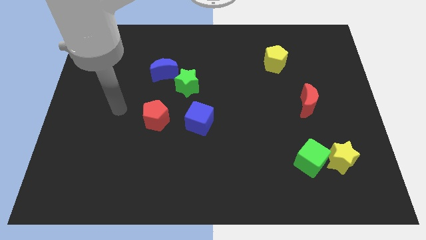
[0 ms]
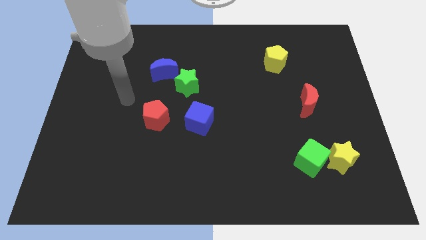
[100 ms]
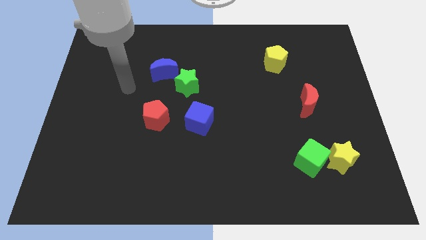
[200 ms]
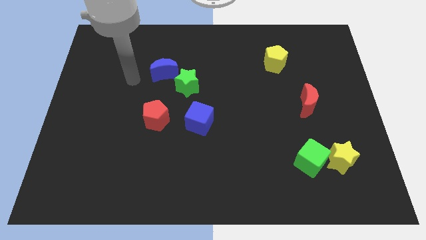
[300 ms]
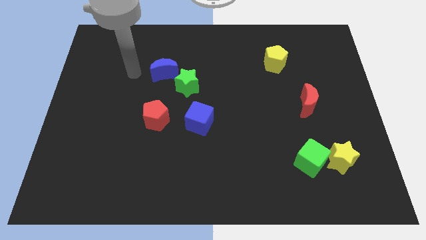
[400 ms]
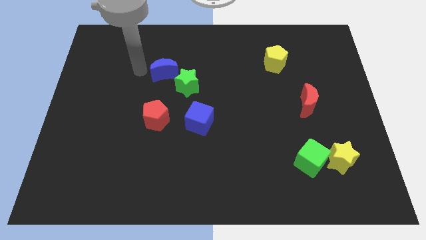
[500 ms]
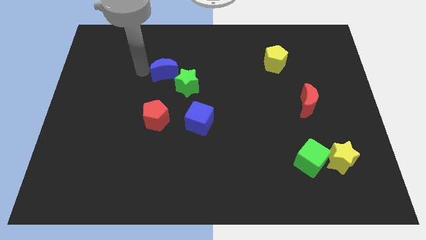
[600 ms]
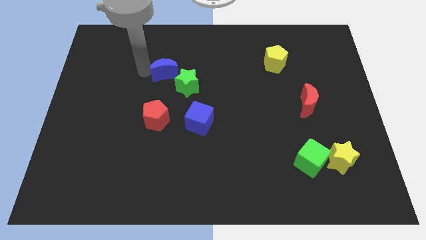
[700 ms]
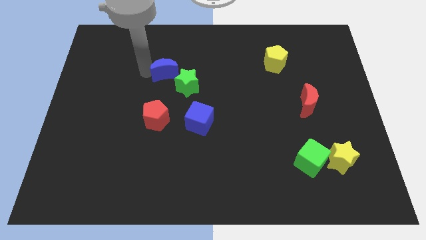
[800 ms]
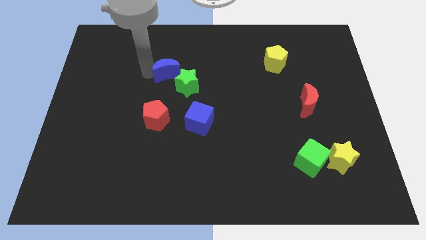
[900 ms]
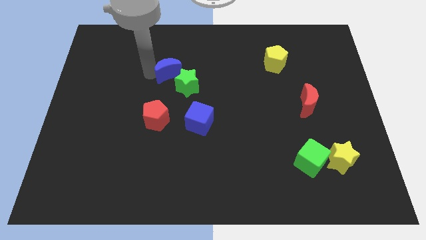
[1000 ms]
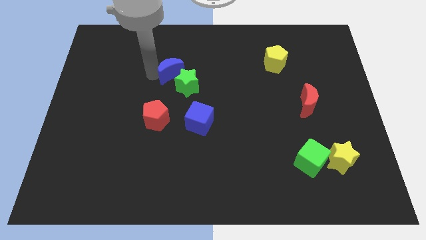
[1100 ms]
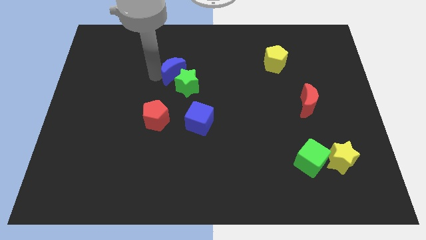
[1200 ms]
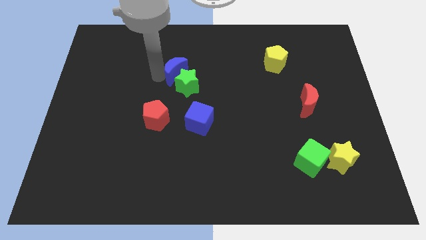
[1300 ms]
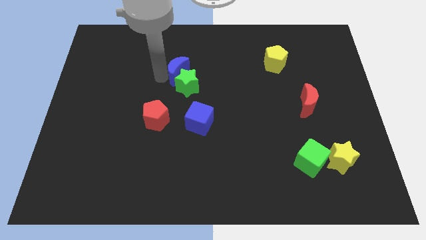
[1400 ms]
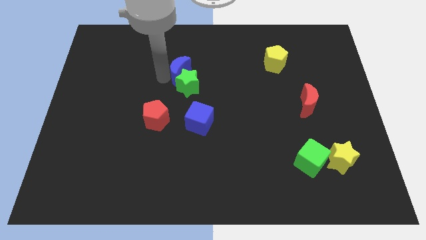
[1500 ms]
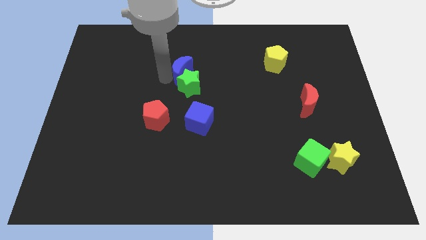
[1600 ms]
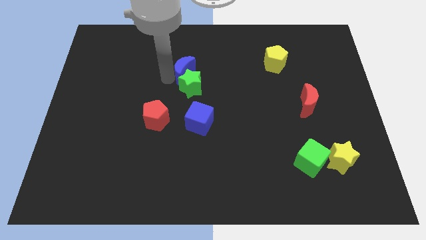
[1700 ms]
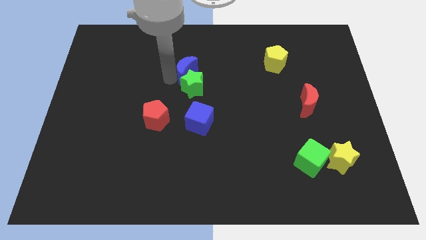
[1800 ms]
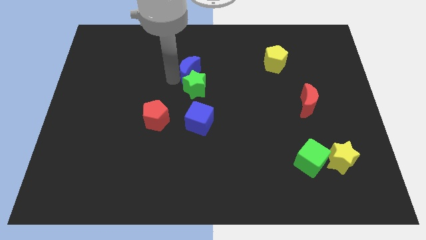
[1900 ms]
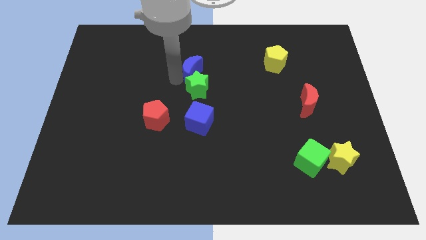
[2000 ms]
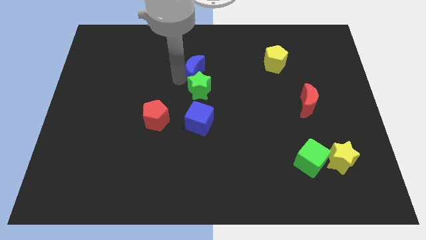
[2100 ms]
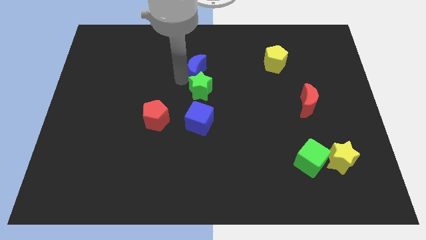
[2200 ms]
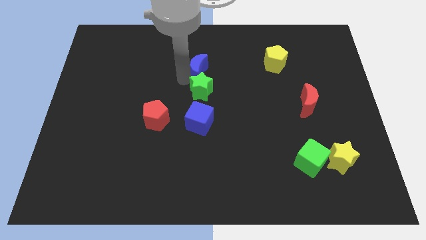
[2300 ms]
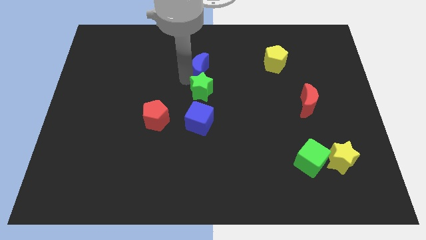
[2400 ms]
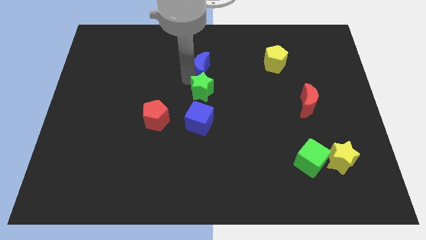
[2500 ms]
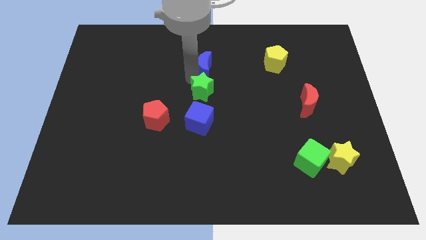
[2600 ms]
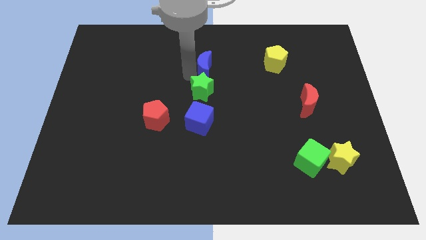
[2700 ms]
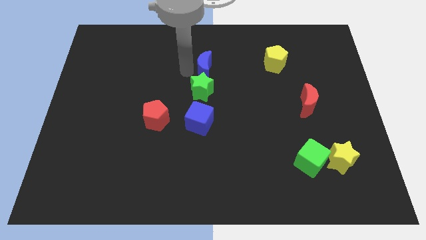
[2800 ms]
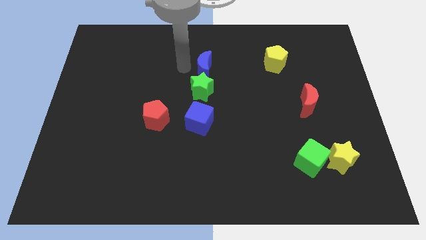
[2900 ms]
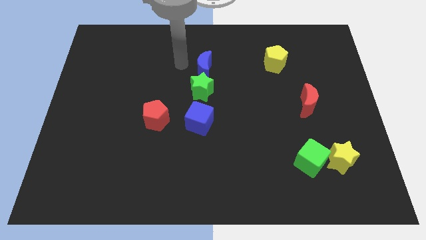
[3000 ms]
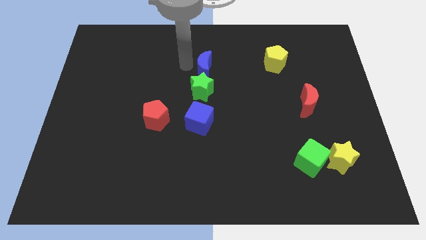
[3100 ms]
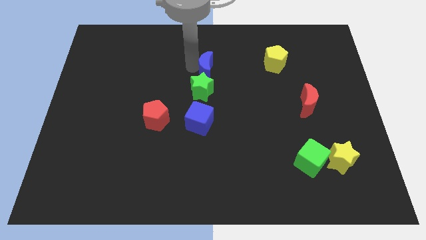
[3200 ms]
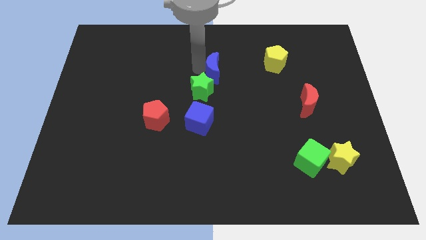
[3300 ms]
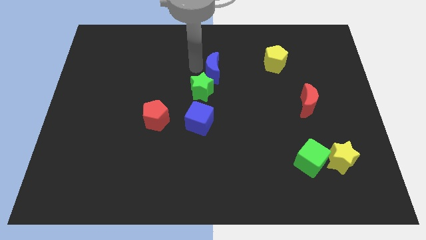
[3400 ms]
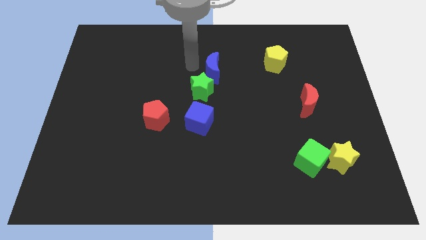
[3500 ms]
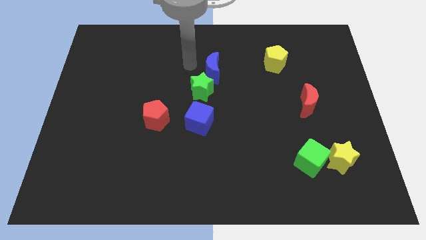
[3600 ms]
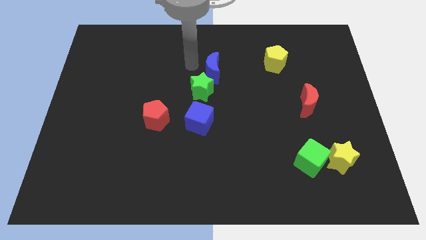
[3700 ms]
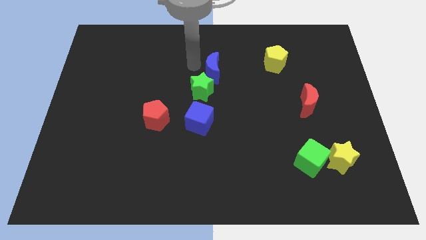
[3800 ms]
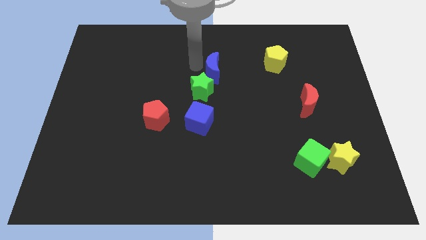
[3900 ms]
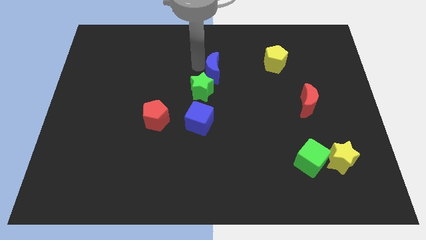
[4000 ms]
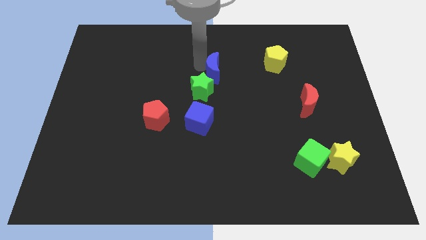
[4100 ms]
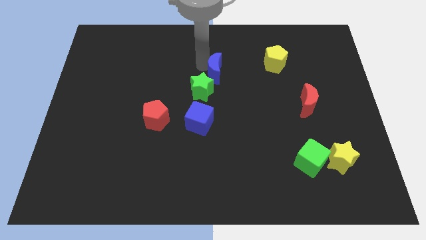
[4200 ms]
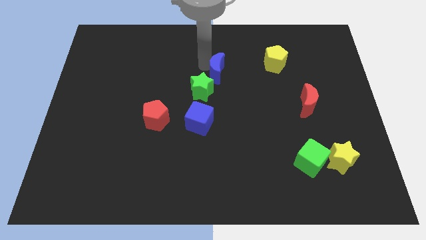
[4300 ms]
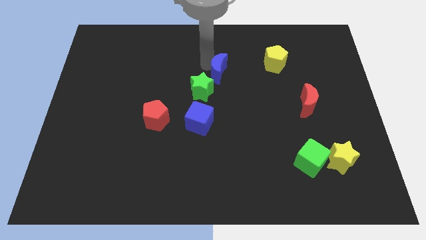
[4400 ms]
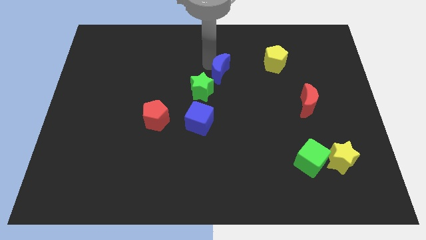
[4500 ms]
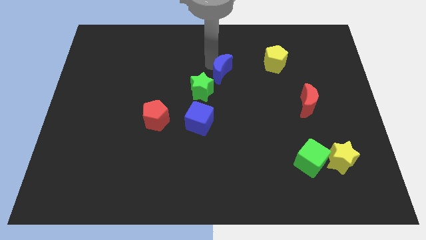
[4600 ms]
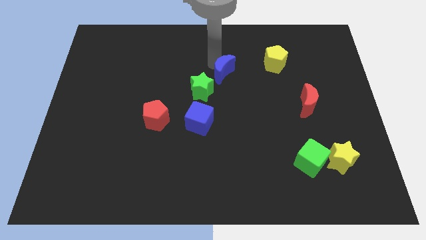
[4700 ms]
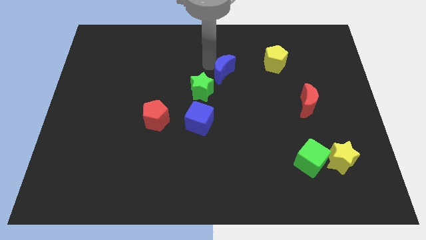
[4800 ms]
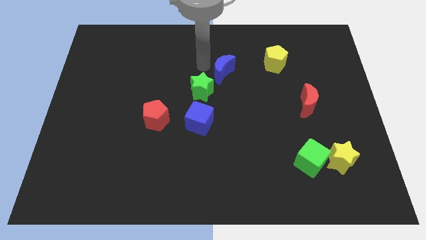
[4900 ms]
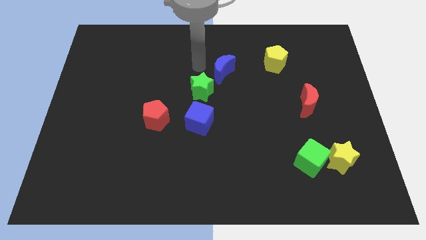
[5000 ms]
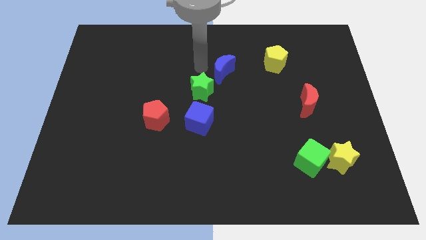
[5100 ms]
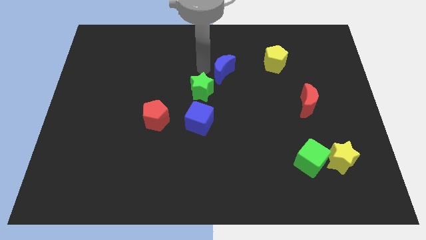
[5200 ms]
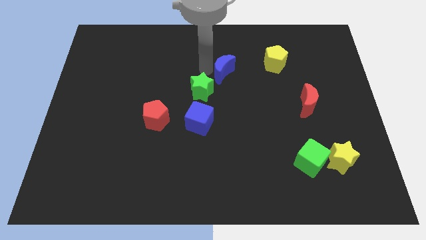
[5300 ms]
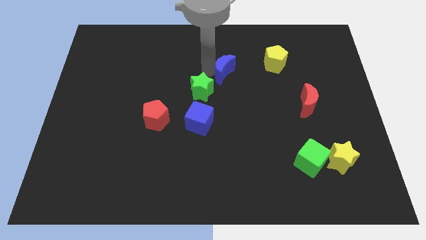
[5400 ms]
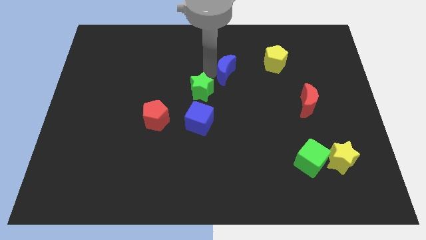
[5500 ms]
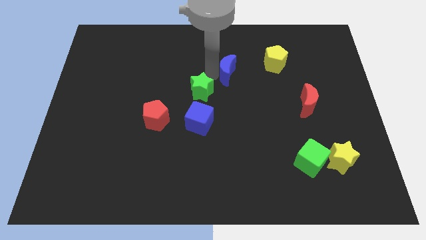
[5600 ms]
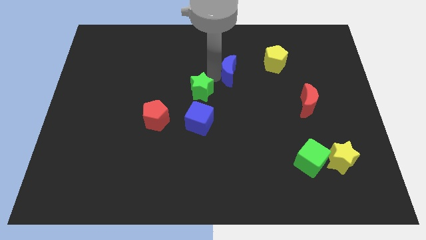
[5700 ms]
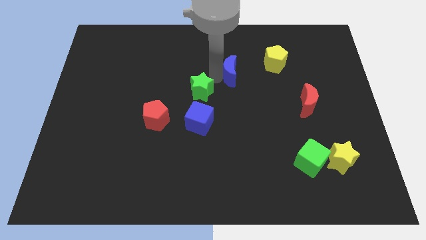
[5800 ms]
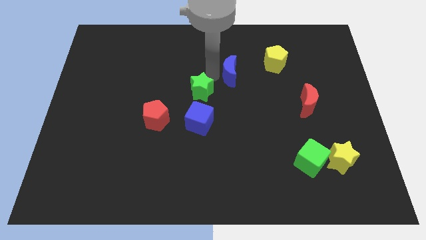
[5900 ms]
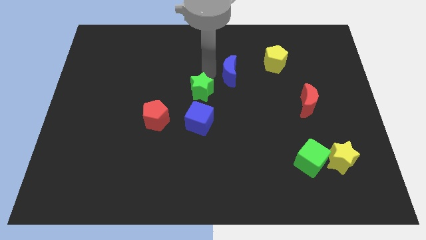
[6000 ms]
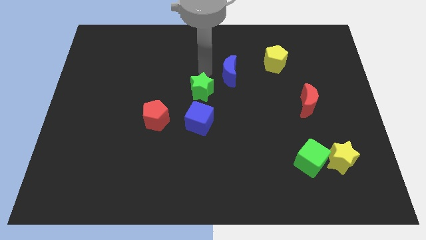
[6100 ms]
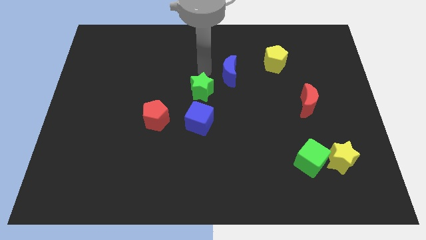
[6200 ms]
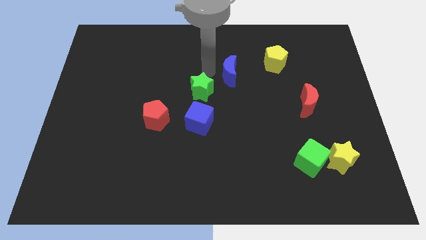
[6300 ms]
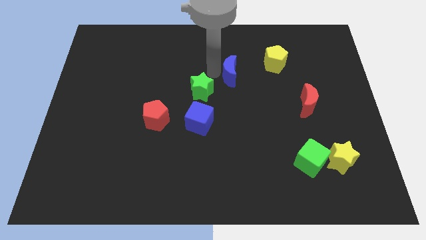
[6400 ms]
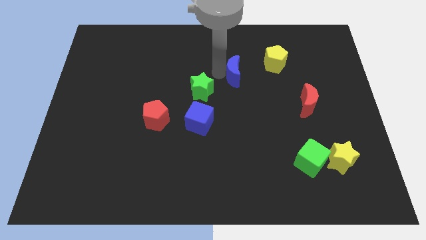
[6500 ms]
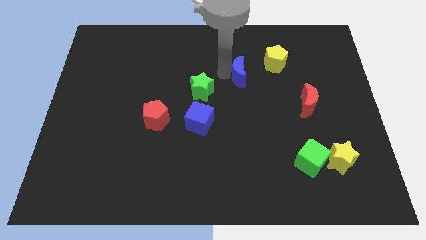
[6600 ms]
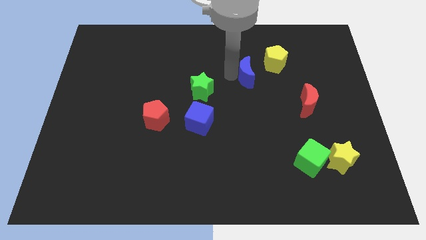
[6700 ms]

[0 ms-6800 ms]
move the blue moon right

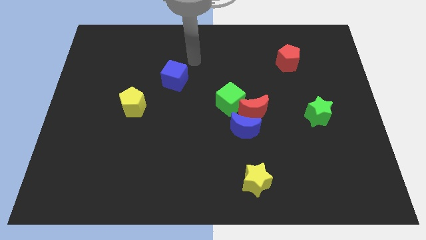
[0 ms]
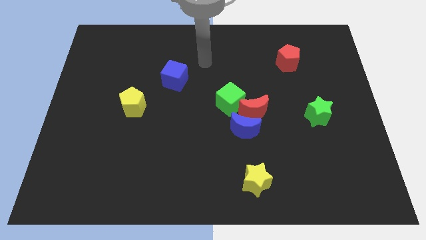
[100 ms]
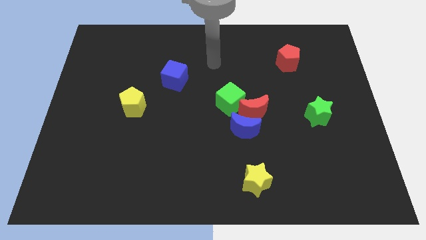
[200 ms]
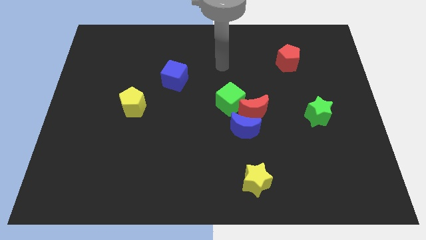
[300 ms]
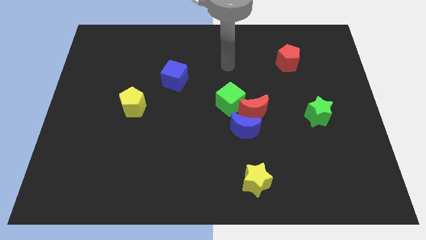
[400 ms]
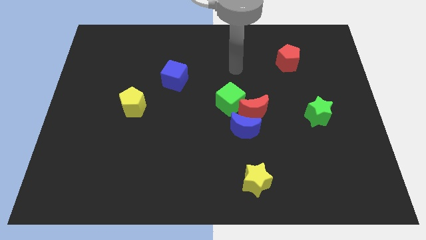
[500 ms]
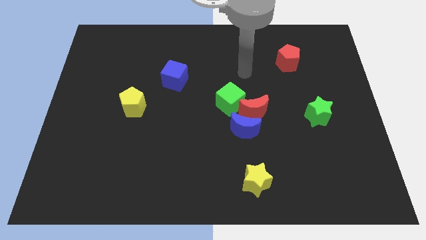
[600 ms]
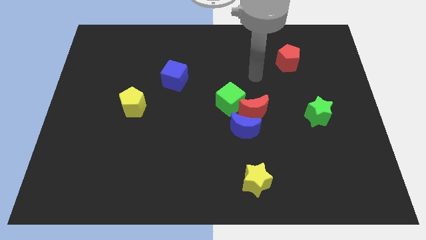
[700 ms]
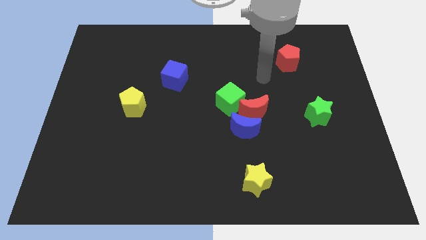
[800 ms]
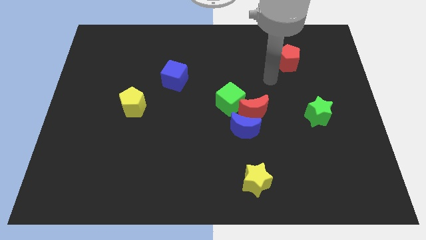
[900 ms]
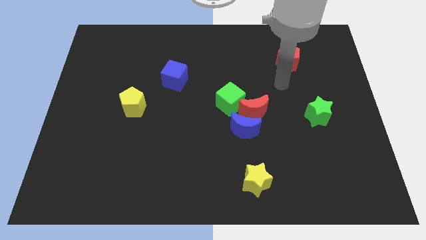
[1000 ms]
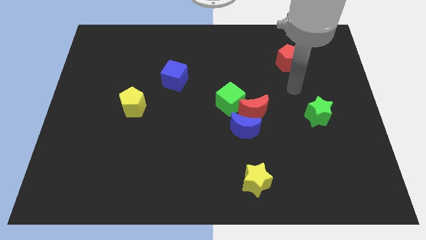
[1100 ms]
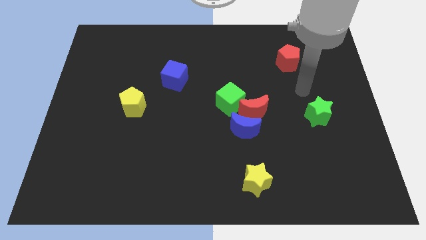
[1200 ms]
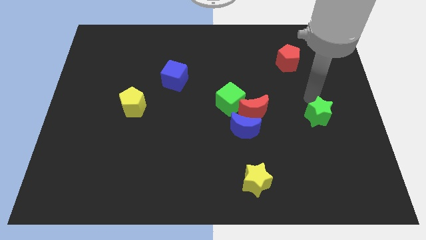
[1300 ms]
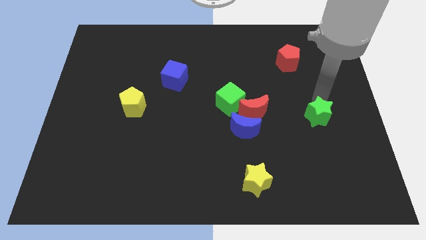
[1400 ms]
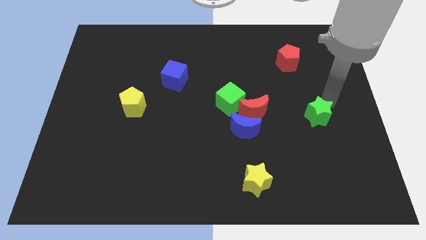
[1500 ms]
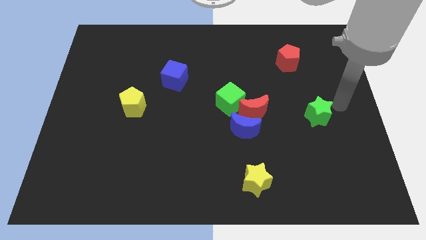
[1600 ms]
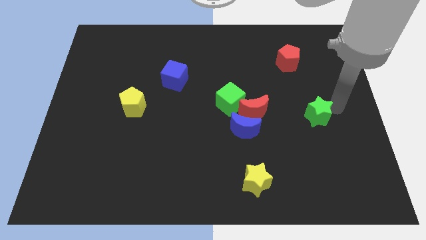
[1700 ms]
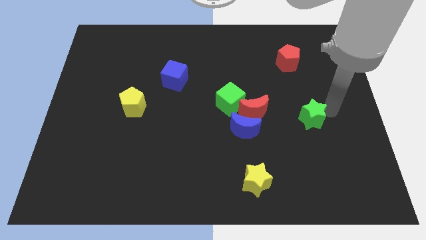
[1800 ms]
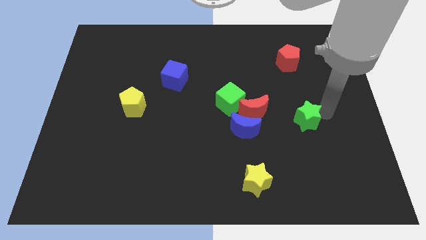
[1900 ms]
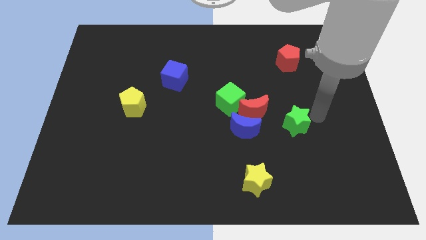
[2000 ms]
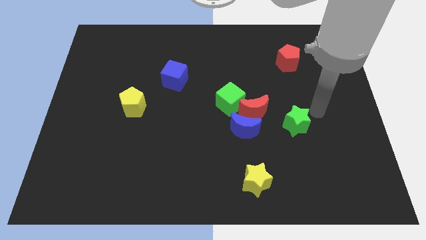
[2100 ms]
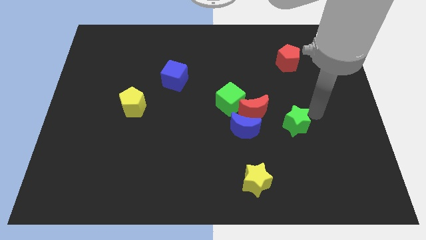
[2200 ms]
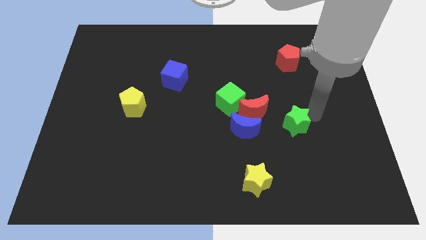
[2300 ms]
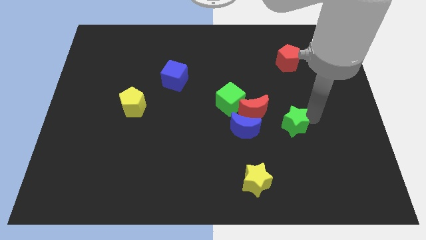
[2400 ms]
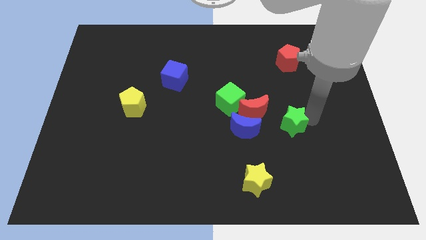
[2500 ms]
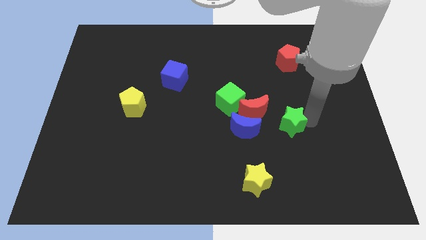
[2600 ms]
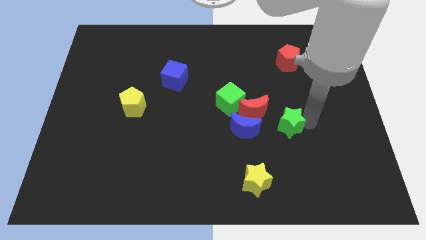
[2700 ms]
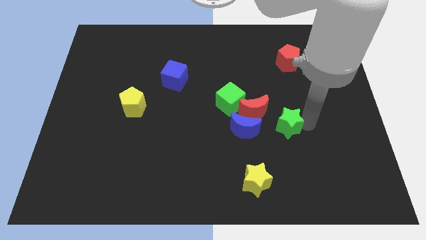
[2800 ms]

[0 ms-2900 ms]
slightly push the green star left
